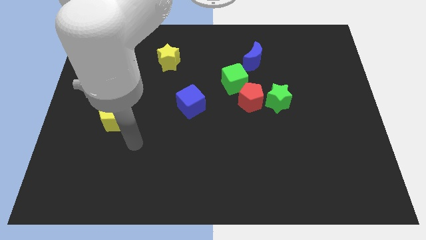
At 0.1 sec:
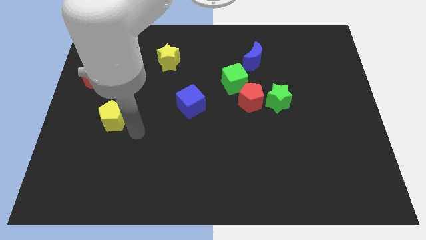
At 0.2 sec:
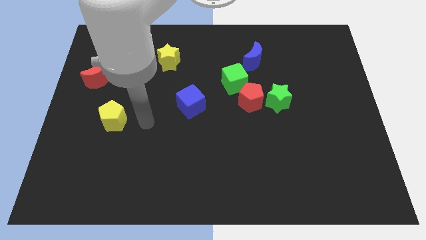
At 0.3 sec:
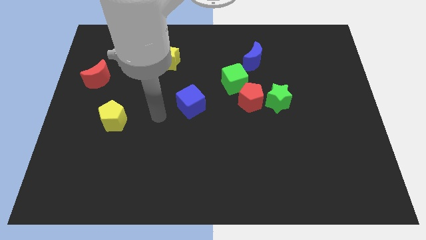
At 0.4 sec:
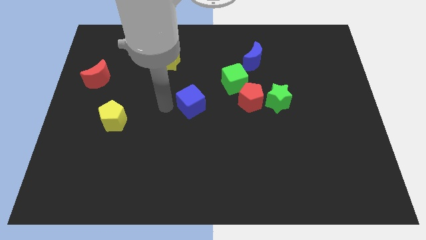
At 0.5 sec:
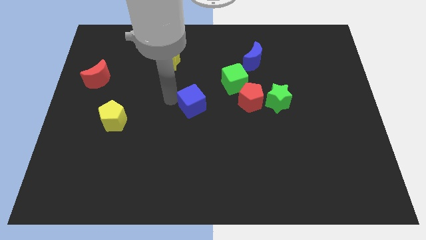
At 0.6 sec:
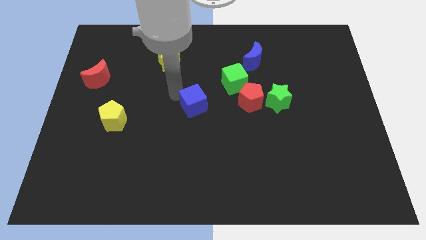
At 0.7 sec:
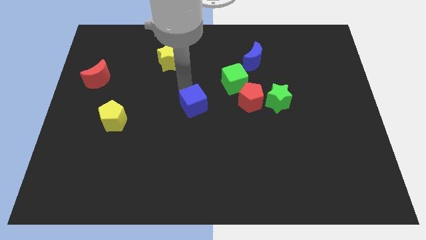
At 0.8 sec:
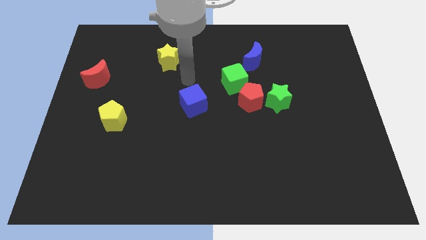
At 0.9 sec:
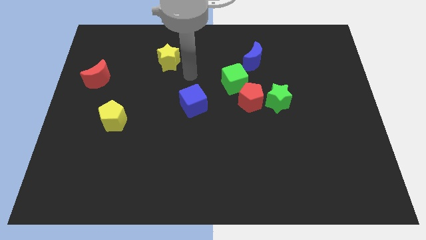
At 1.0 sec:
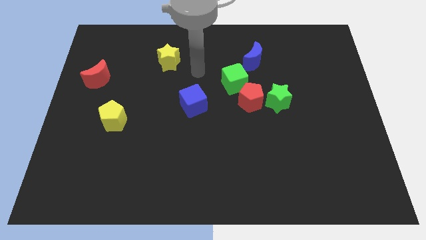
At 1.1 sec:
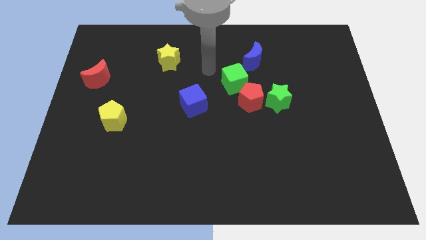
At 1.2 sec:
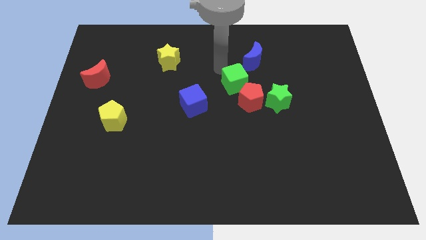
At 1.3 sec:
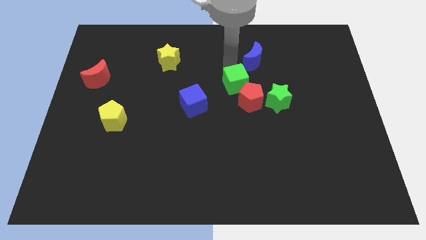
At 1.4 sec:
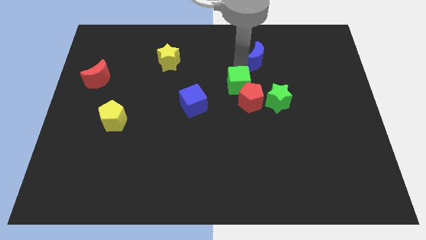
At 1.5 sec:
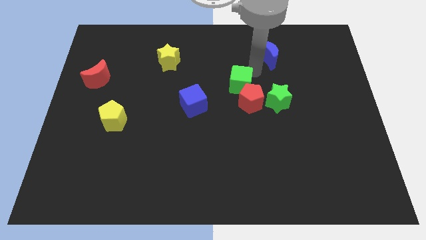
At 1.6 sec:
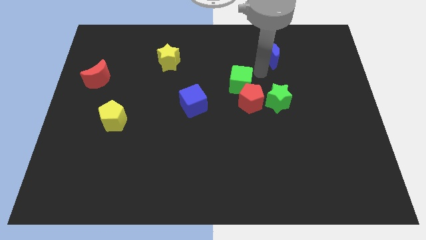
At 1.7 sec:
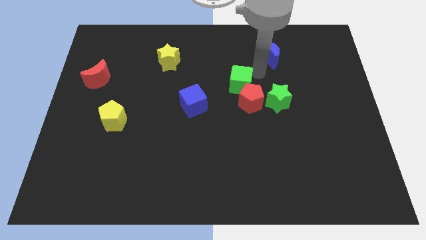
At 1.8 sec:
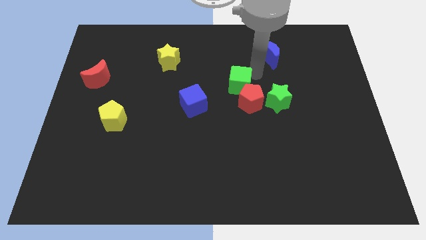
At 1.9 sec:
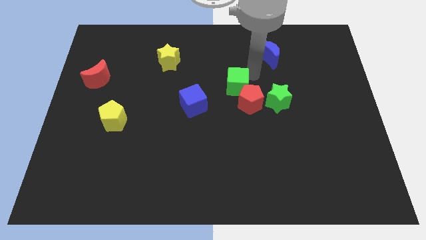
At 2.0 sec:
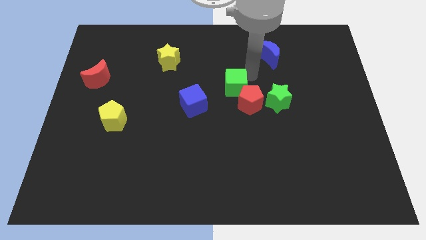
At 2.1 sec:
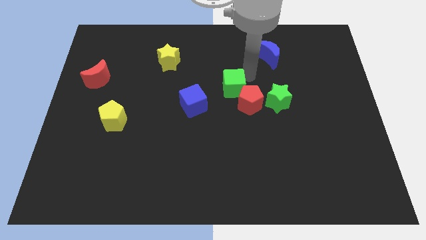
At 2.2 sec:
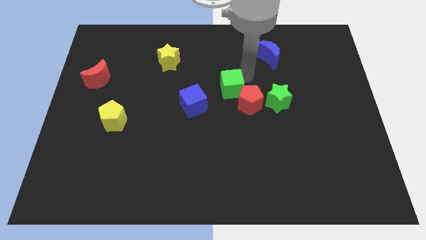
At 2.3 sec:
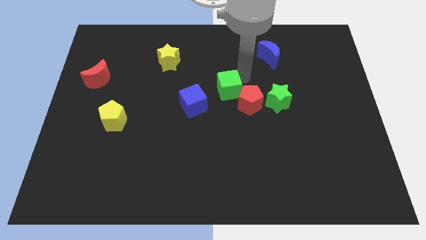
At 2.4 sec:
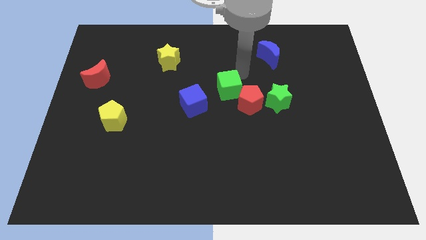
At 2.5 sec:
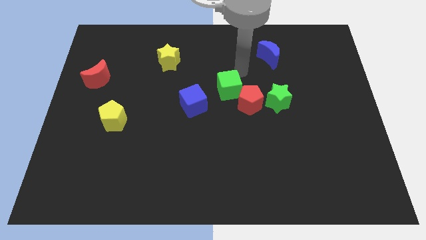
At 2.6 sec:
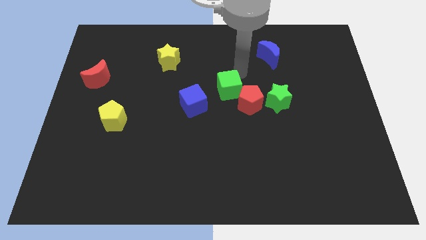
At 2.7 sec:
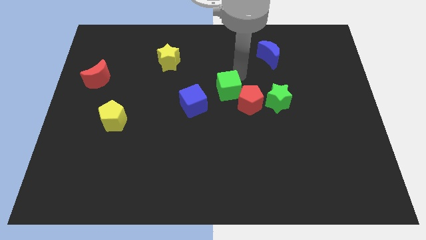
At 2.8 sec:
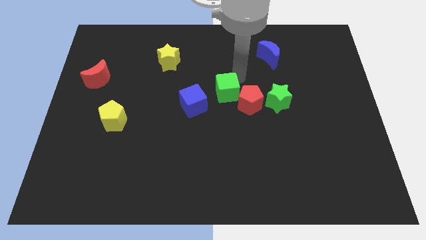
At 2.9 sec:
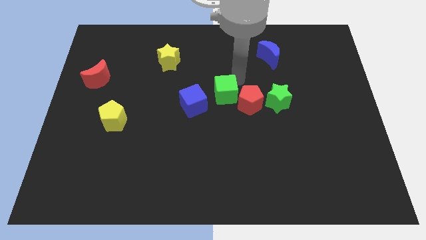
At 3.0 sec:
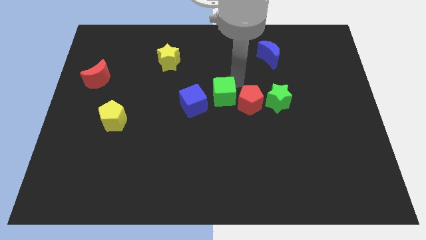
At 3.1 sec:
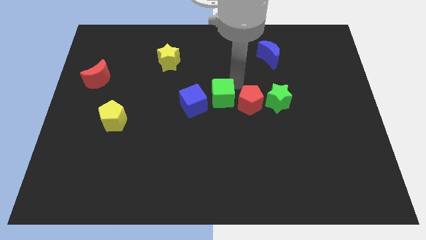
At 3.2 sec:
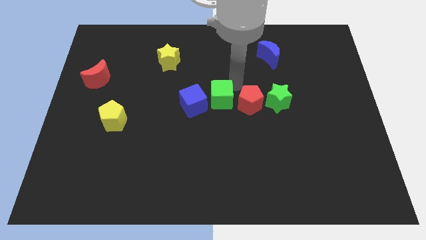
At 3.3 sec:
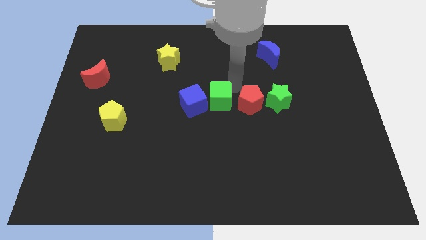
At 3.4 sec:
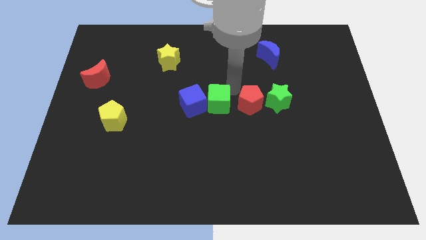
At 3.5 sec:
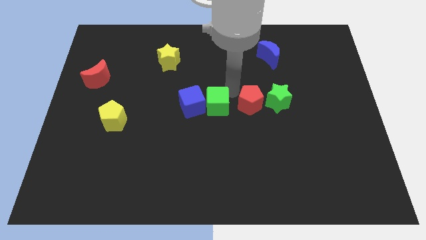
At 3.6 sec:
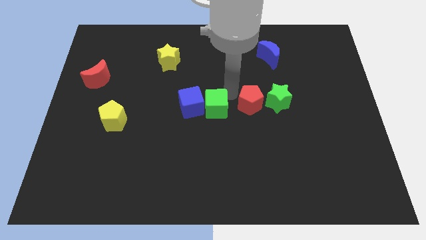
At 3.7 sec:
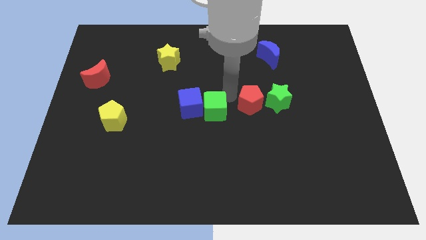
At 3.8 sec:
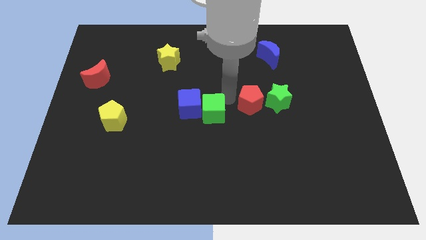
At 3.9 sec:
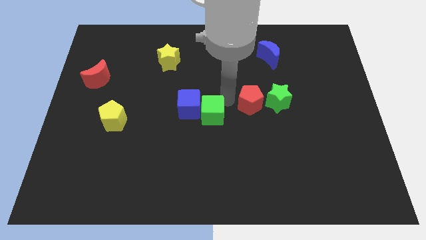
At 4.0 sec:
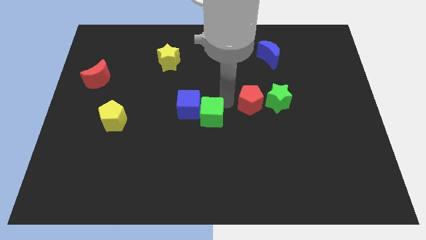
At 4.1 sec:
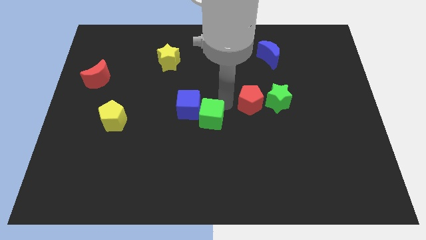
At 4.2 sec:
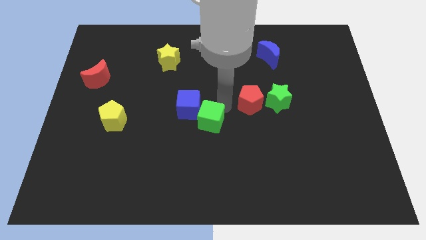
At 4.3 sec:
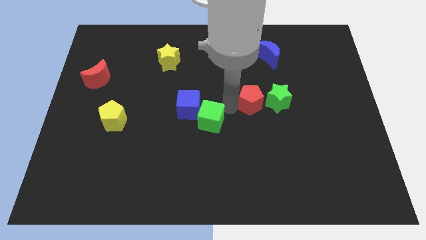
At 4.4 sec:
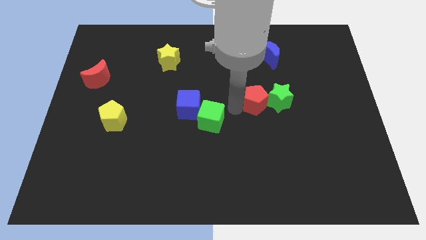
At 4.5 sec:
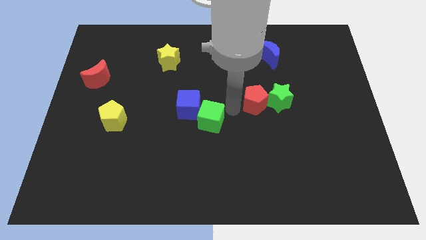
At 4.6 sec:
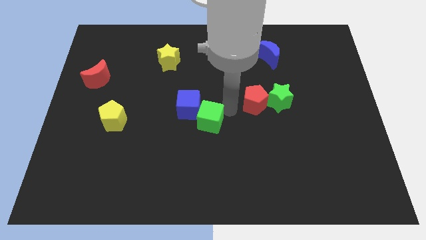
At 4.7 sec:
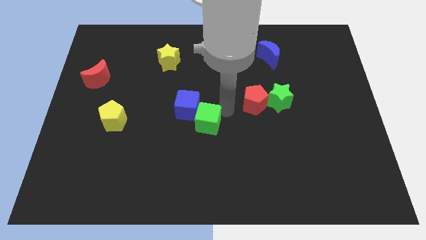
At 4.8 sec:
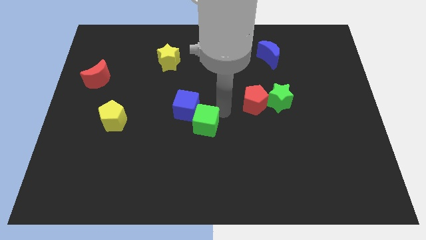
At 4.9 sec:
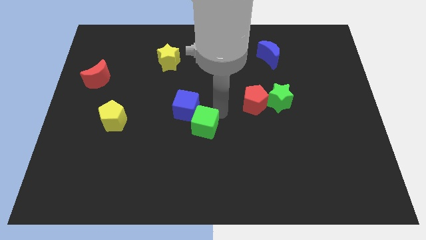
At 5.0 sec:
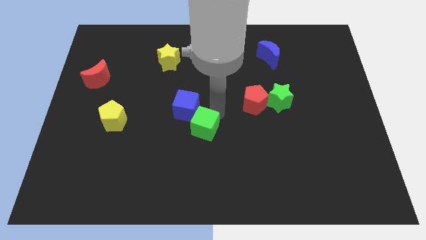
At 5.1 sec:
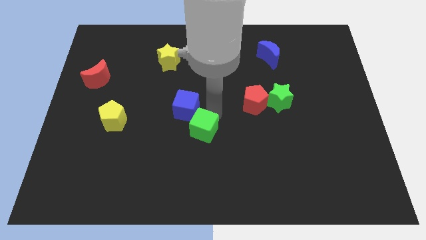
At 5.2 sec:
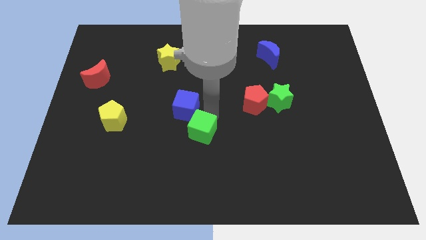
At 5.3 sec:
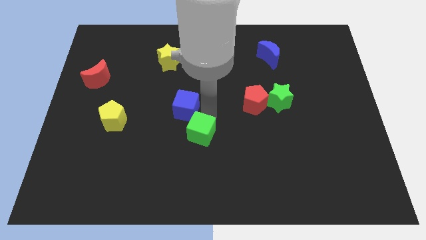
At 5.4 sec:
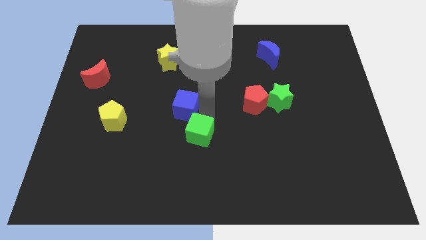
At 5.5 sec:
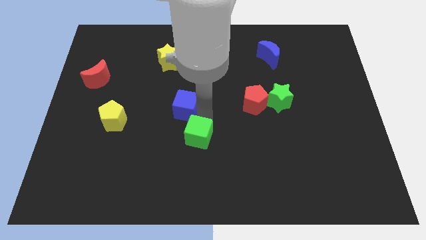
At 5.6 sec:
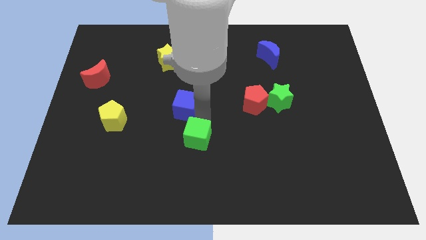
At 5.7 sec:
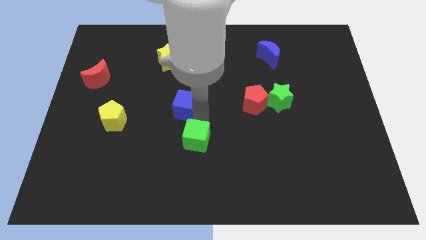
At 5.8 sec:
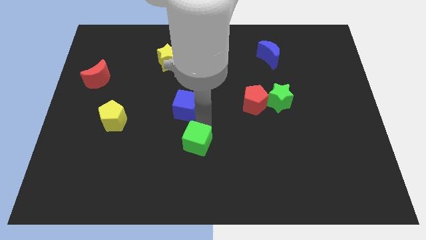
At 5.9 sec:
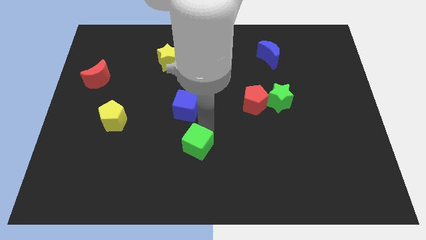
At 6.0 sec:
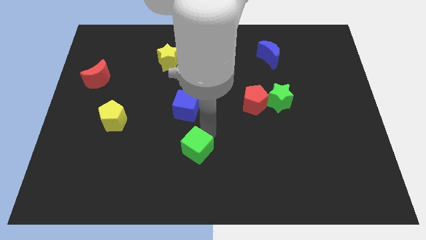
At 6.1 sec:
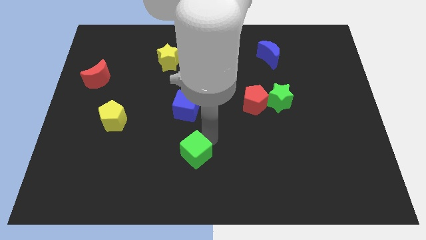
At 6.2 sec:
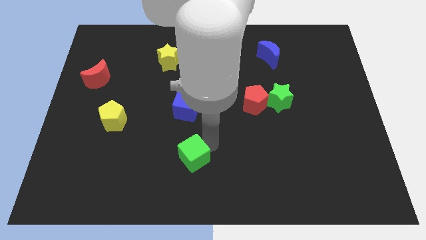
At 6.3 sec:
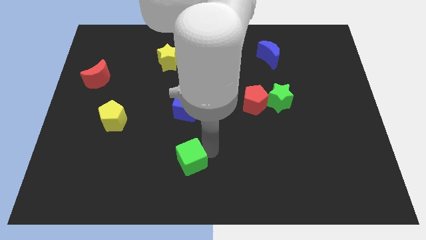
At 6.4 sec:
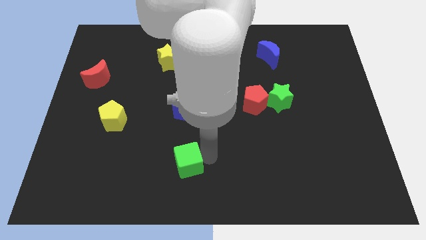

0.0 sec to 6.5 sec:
slide the green cube down and then left

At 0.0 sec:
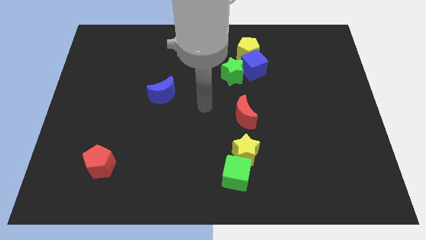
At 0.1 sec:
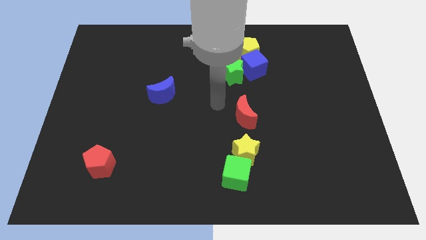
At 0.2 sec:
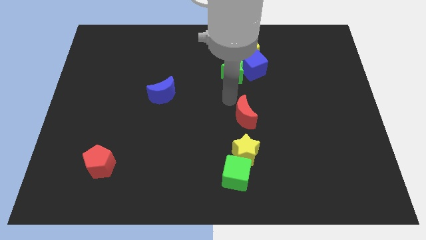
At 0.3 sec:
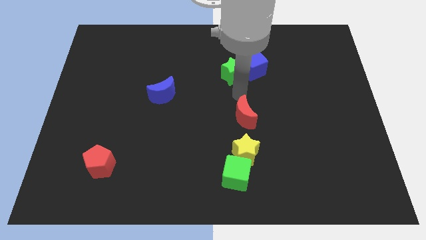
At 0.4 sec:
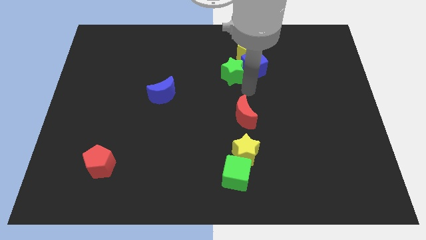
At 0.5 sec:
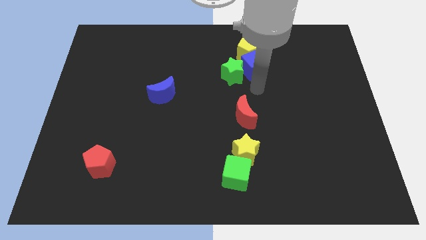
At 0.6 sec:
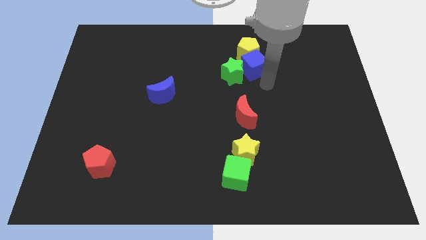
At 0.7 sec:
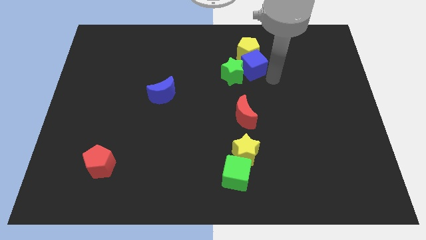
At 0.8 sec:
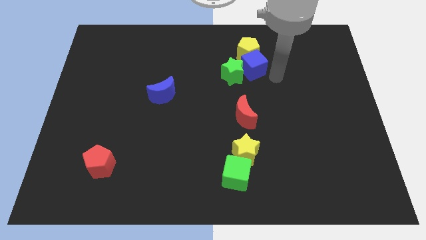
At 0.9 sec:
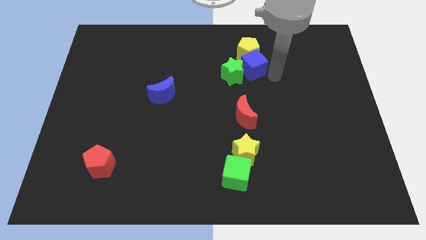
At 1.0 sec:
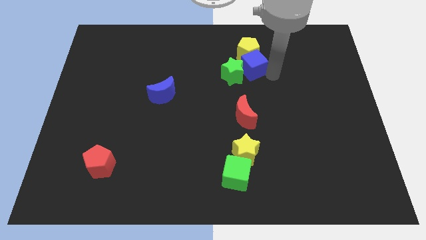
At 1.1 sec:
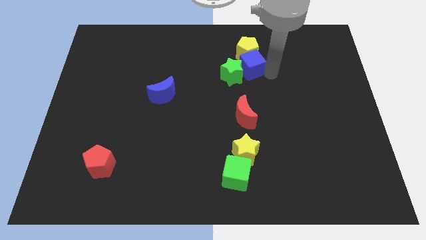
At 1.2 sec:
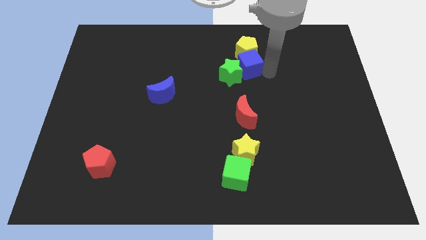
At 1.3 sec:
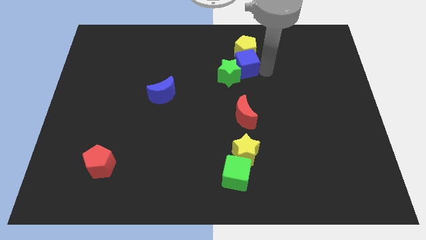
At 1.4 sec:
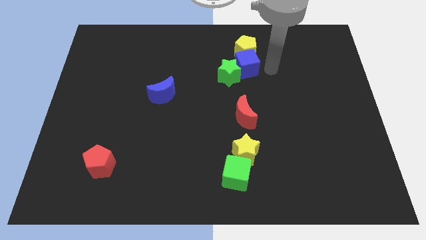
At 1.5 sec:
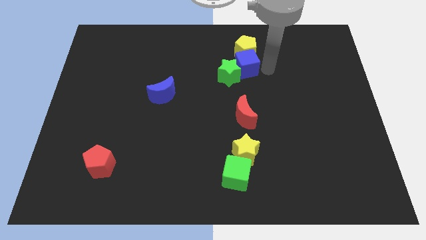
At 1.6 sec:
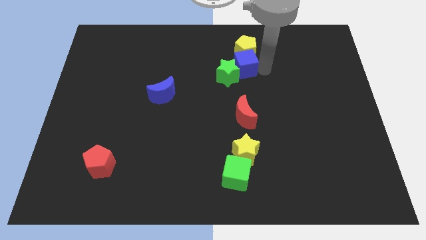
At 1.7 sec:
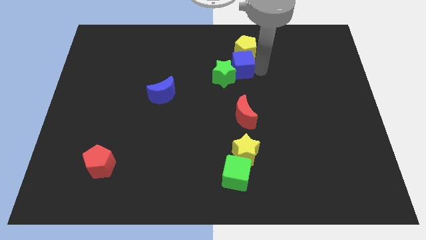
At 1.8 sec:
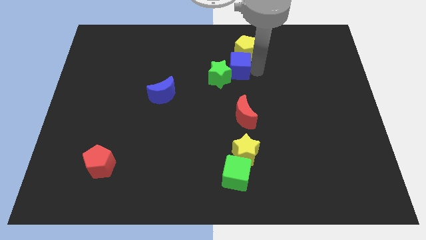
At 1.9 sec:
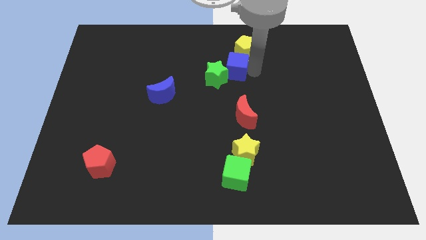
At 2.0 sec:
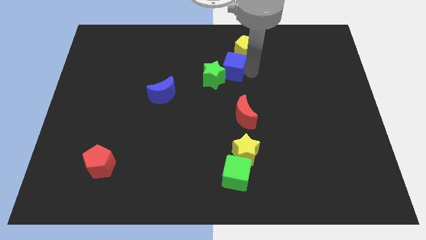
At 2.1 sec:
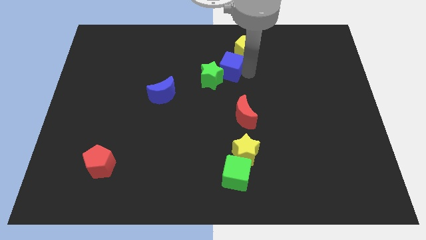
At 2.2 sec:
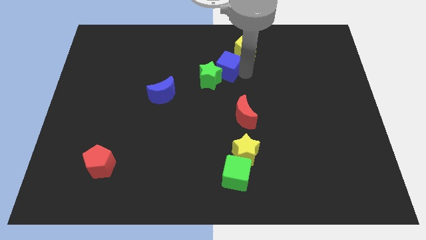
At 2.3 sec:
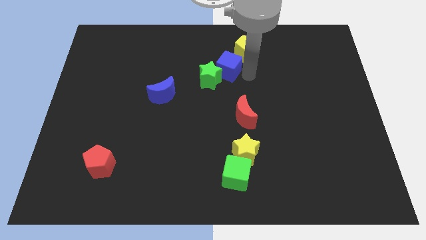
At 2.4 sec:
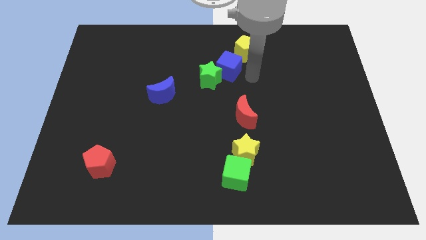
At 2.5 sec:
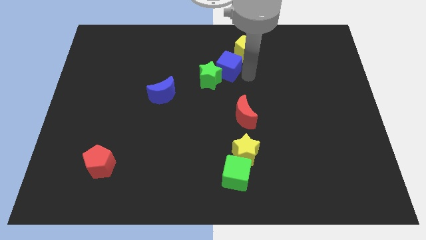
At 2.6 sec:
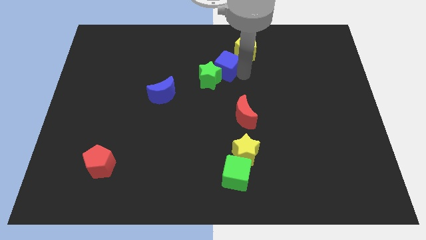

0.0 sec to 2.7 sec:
push the blue cube to the left a little bit
